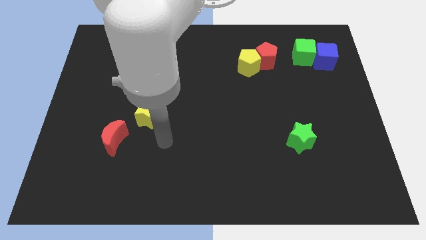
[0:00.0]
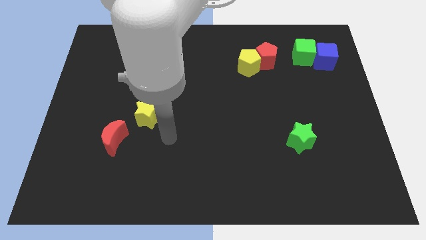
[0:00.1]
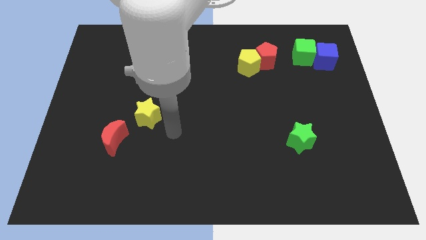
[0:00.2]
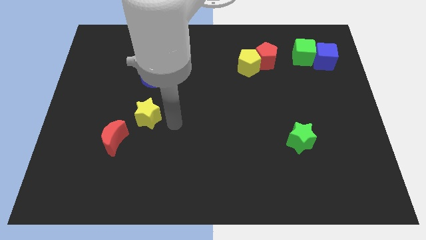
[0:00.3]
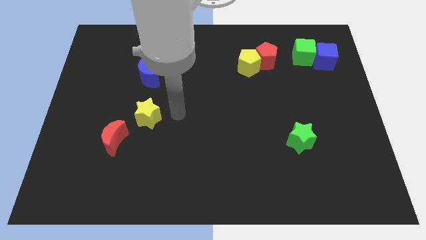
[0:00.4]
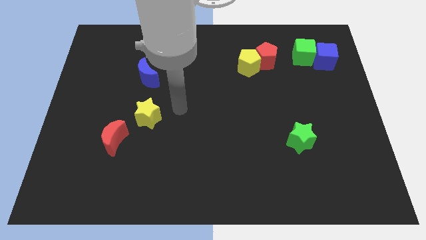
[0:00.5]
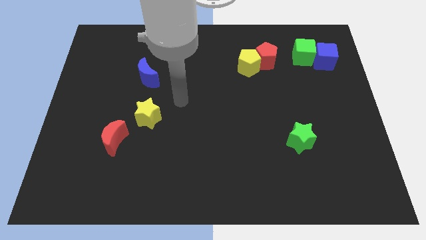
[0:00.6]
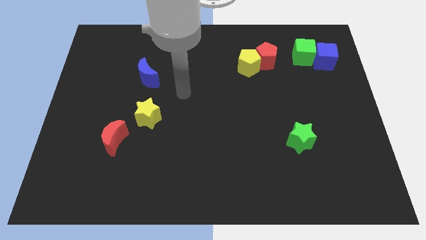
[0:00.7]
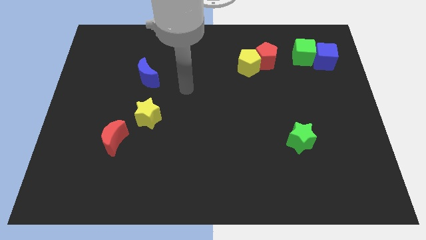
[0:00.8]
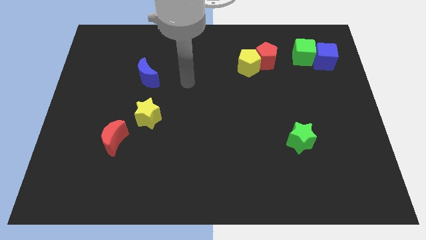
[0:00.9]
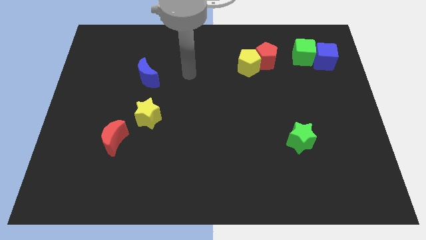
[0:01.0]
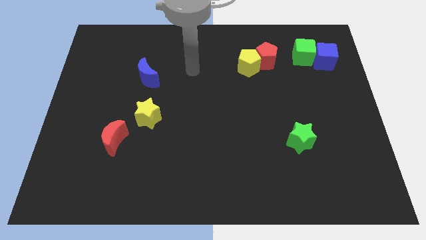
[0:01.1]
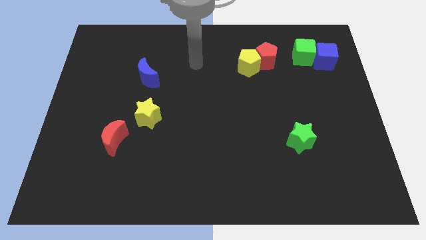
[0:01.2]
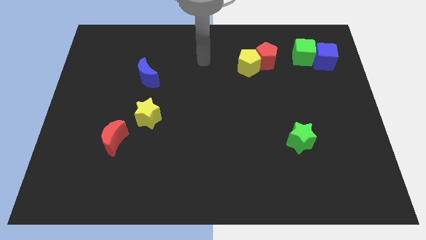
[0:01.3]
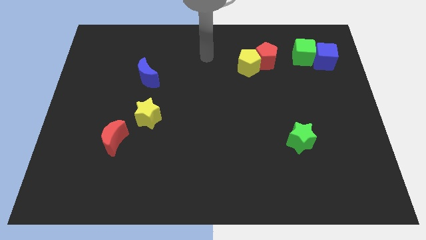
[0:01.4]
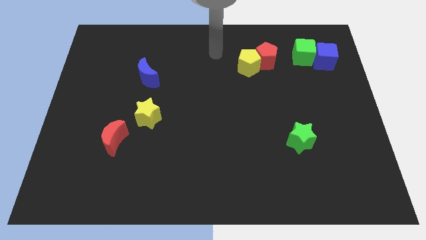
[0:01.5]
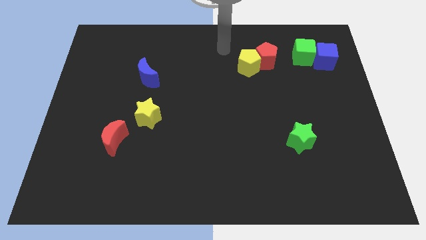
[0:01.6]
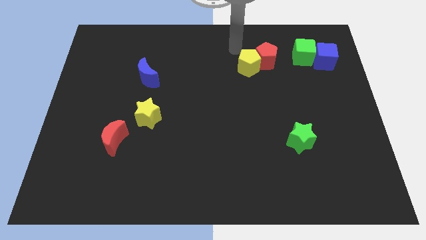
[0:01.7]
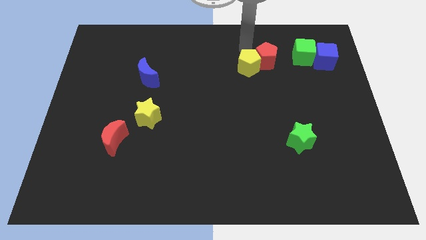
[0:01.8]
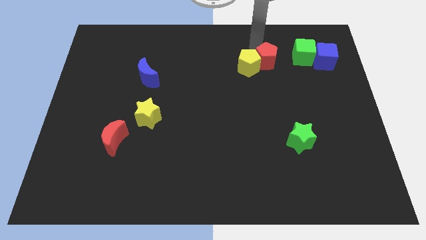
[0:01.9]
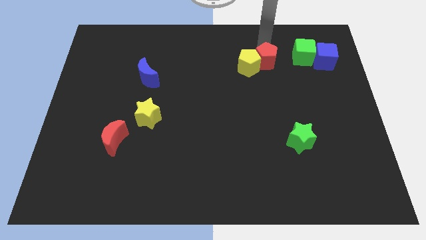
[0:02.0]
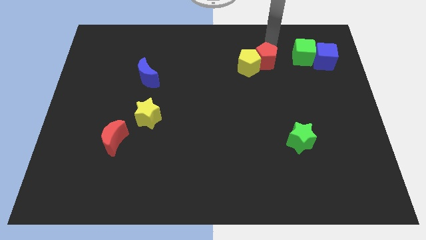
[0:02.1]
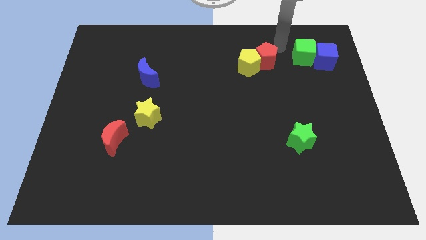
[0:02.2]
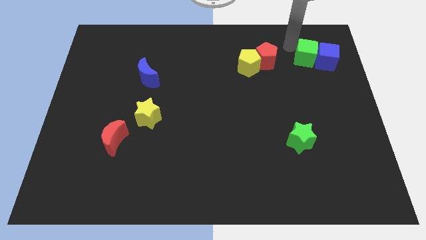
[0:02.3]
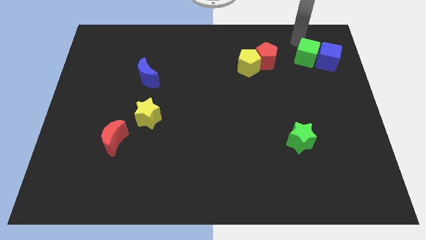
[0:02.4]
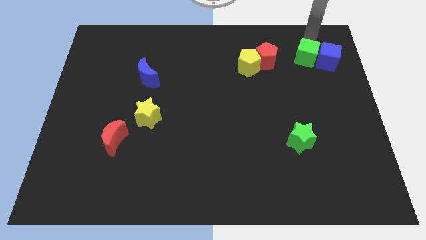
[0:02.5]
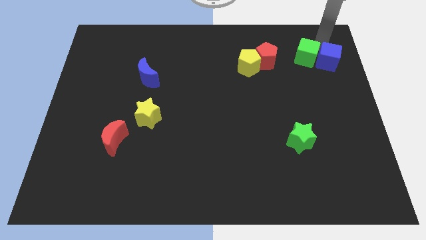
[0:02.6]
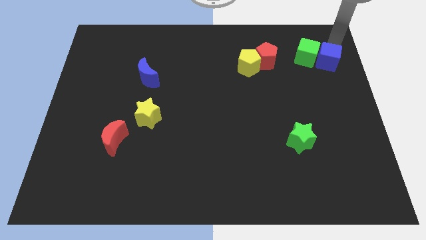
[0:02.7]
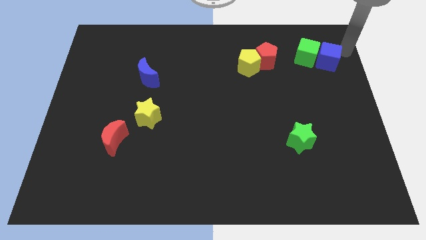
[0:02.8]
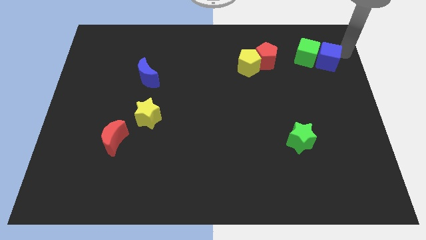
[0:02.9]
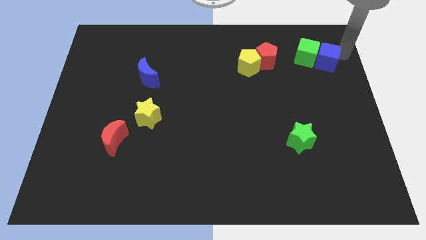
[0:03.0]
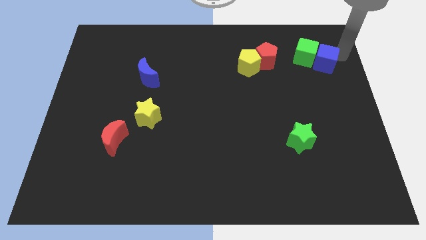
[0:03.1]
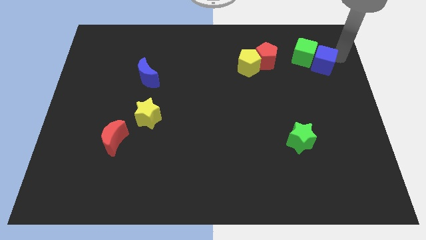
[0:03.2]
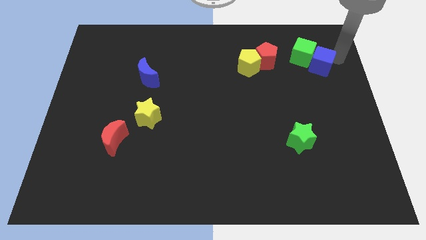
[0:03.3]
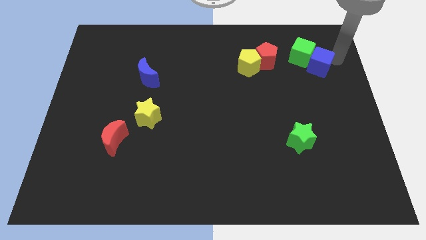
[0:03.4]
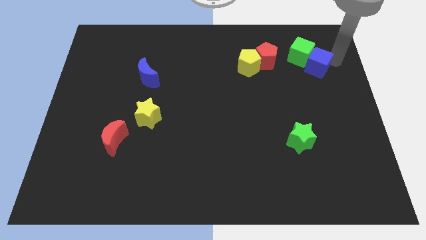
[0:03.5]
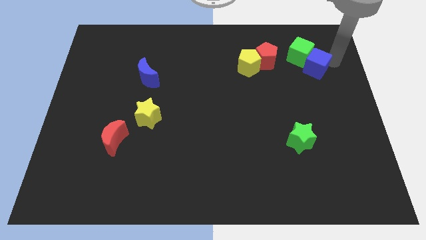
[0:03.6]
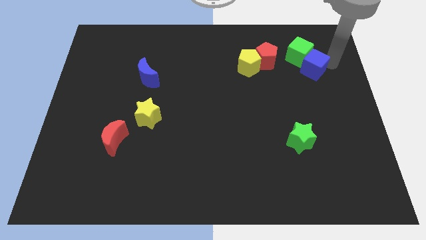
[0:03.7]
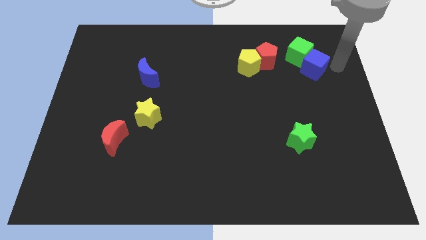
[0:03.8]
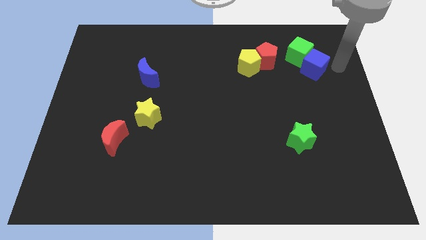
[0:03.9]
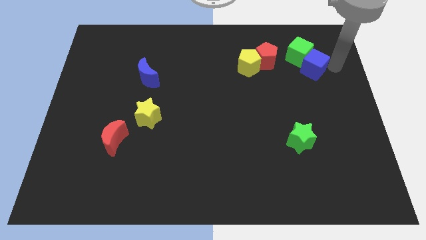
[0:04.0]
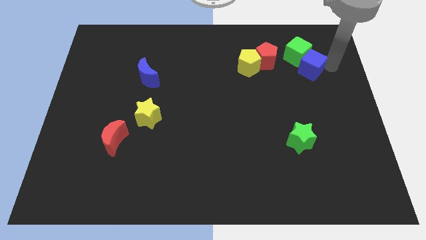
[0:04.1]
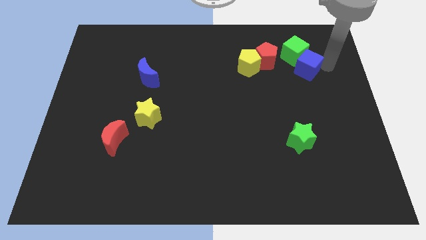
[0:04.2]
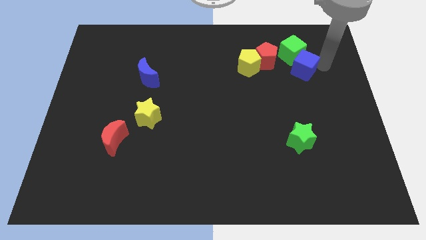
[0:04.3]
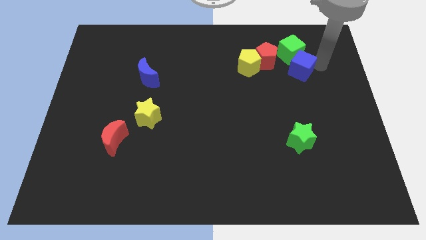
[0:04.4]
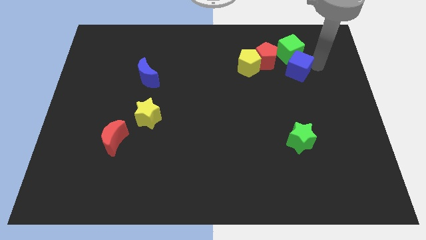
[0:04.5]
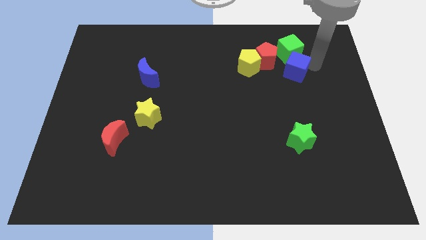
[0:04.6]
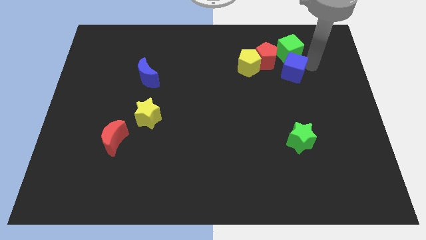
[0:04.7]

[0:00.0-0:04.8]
move the blue cube to the bottom left of the green cube

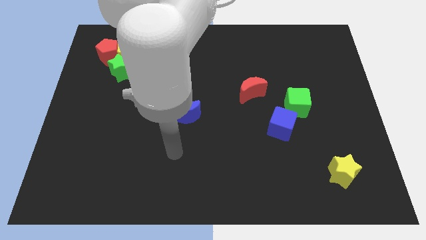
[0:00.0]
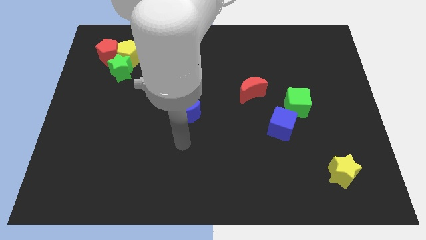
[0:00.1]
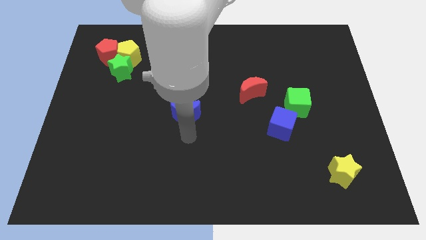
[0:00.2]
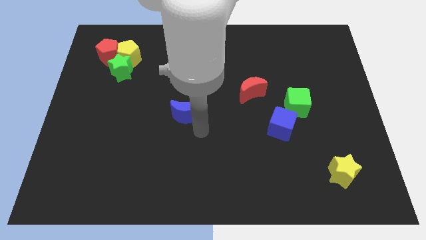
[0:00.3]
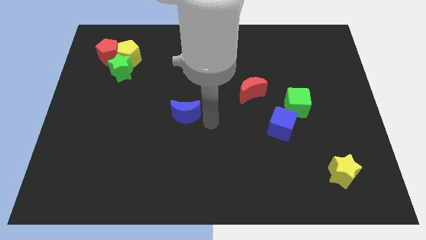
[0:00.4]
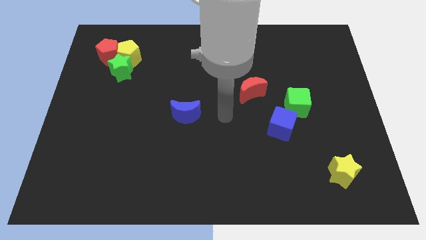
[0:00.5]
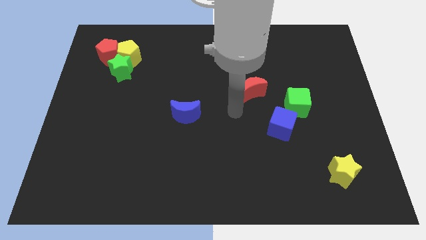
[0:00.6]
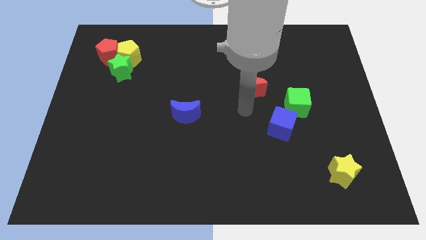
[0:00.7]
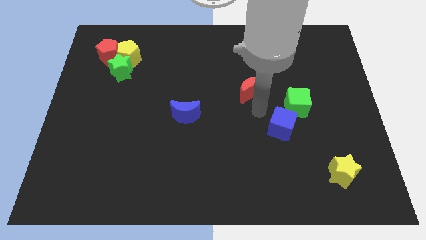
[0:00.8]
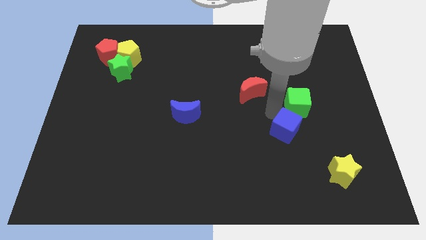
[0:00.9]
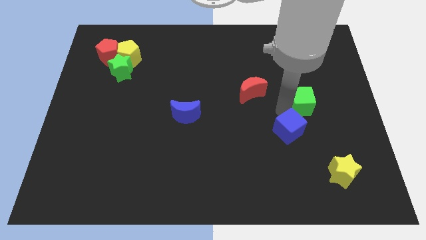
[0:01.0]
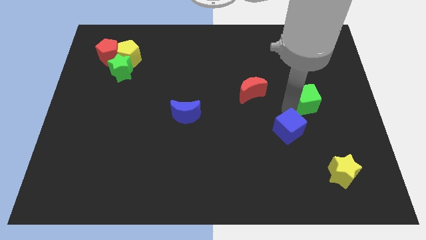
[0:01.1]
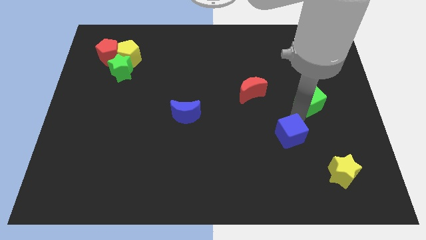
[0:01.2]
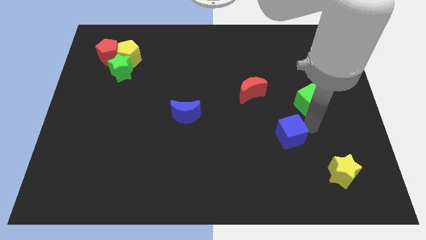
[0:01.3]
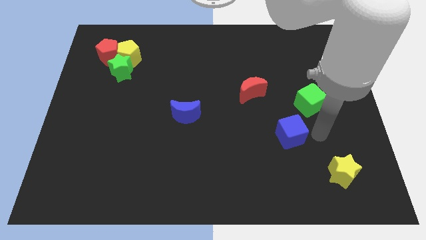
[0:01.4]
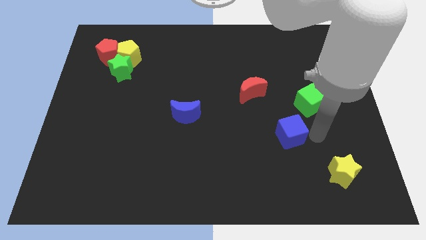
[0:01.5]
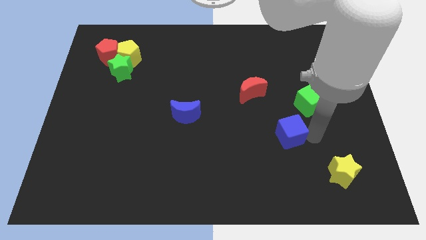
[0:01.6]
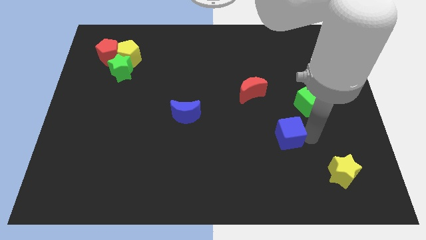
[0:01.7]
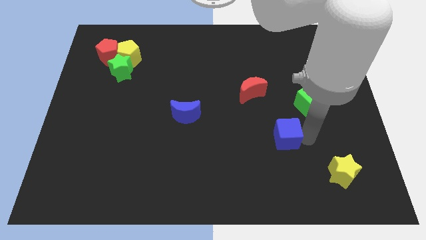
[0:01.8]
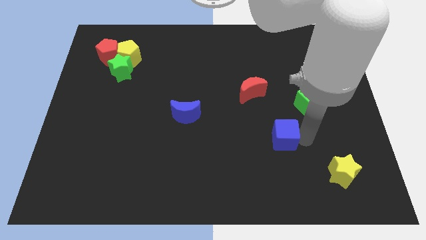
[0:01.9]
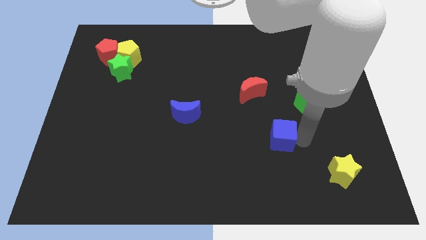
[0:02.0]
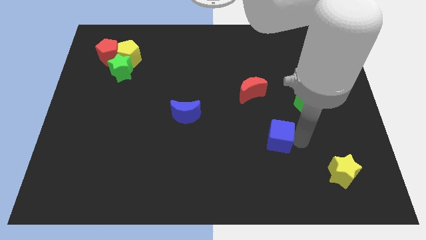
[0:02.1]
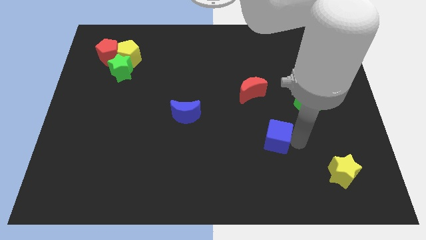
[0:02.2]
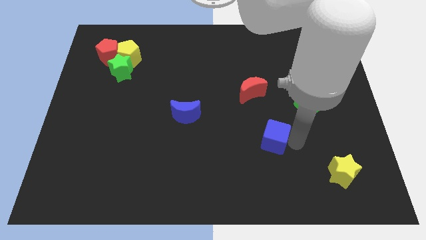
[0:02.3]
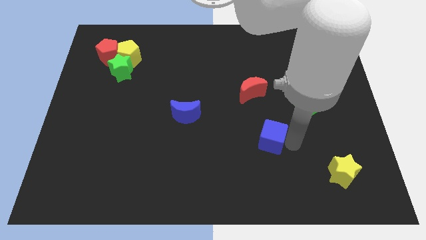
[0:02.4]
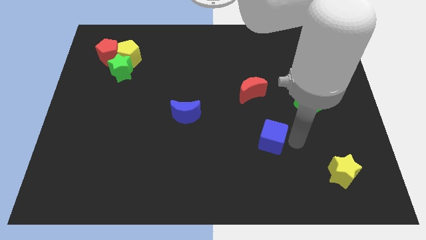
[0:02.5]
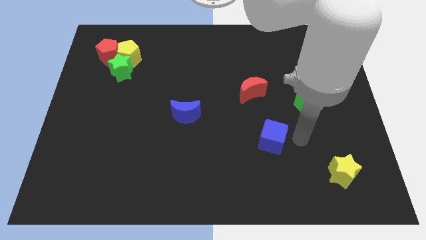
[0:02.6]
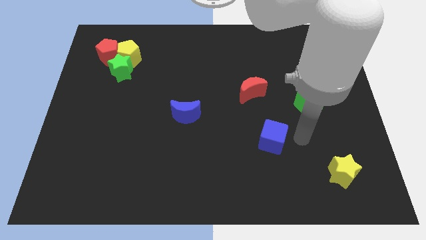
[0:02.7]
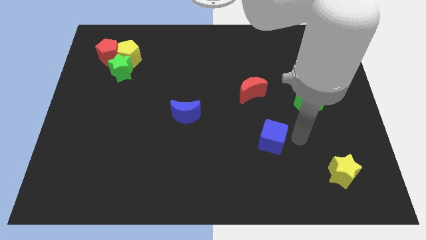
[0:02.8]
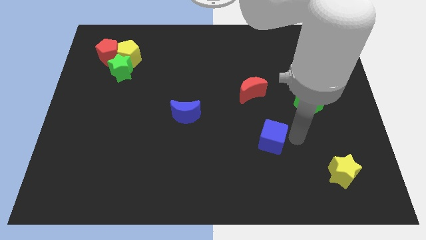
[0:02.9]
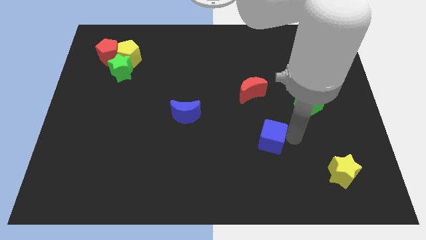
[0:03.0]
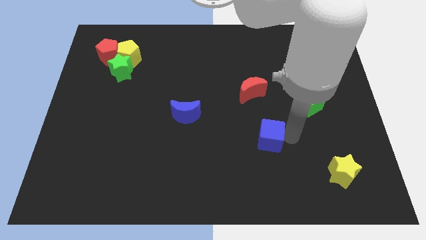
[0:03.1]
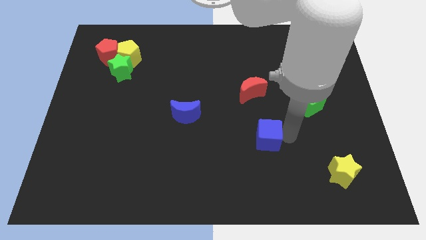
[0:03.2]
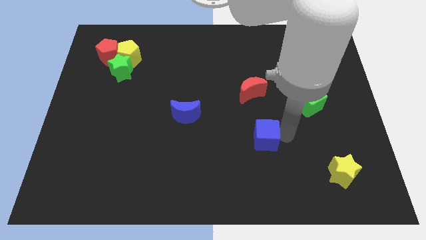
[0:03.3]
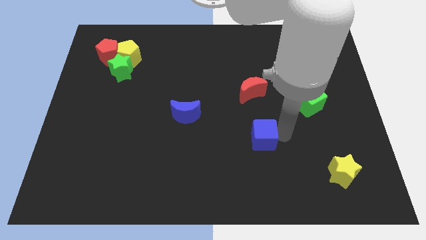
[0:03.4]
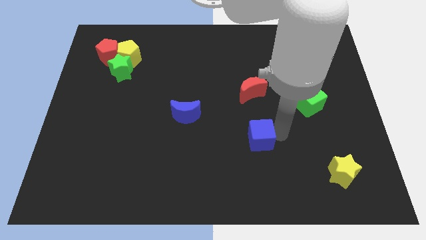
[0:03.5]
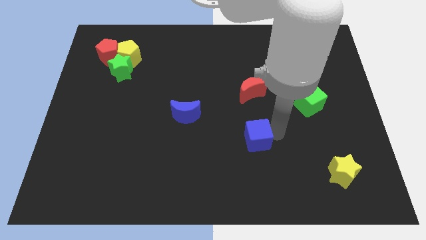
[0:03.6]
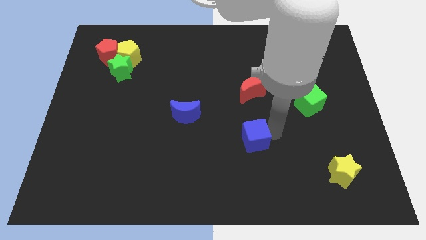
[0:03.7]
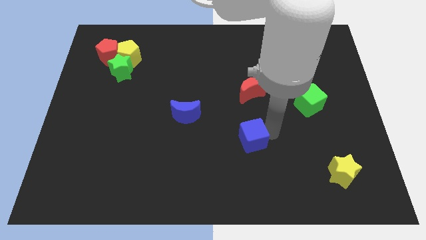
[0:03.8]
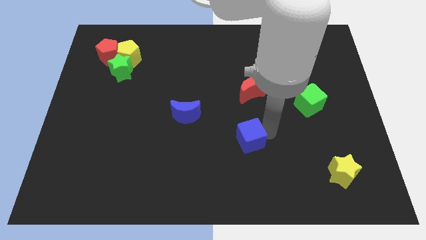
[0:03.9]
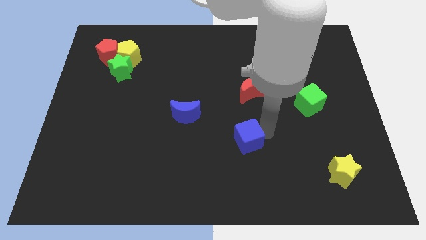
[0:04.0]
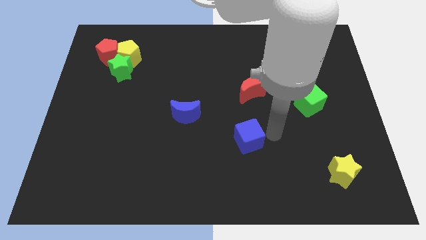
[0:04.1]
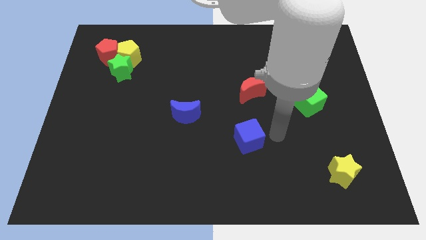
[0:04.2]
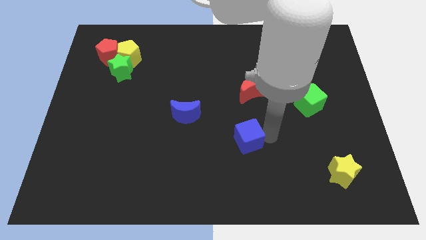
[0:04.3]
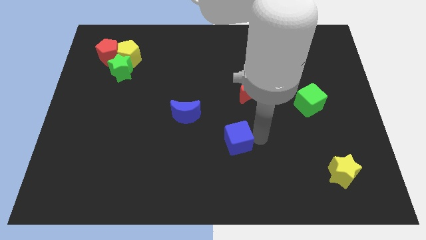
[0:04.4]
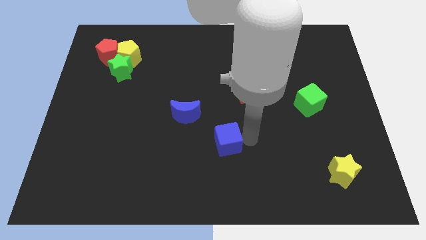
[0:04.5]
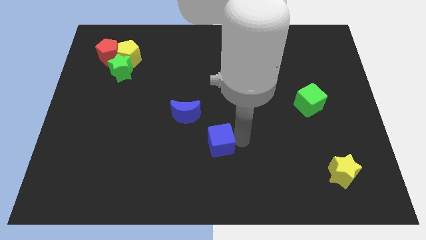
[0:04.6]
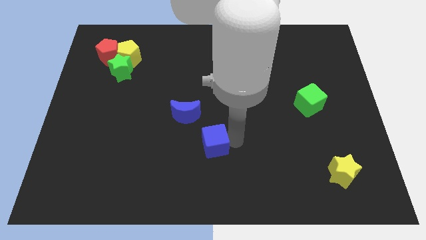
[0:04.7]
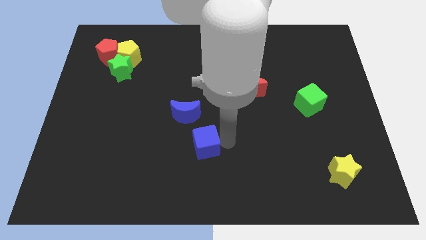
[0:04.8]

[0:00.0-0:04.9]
push the blue cube below the blue moon
